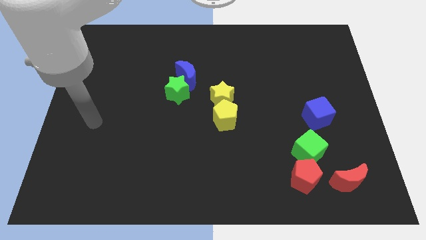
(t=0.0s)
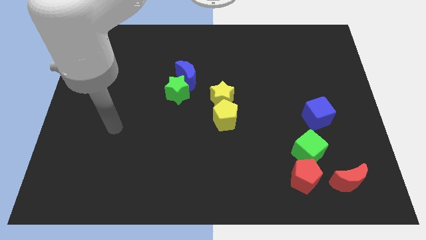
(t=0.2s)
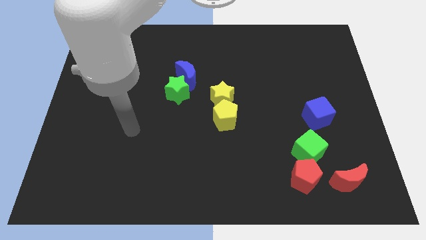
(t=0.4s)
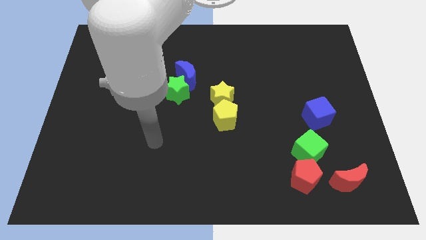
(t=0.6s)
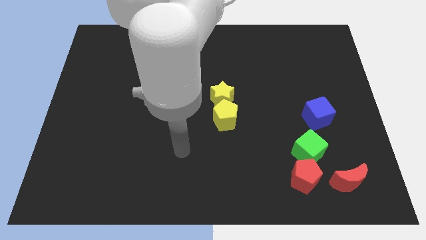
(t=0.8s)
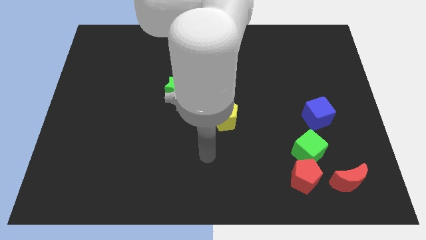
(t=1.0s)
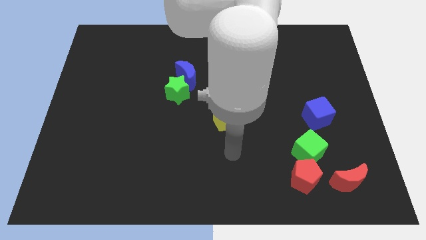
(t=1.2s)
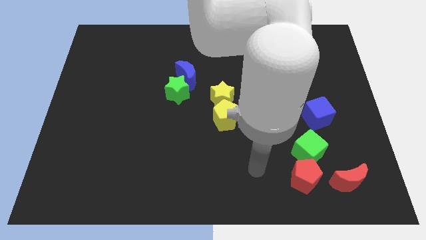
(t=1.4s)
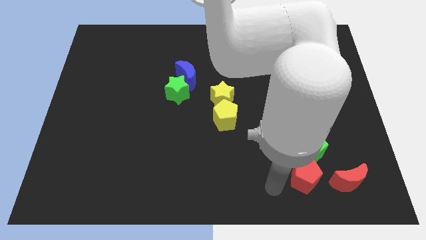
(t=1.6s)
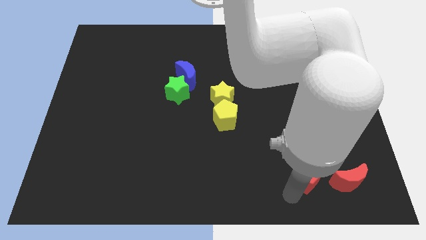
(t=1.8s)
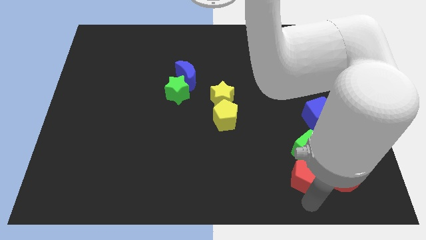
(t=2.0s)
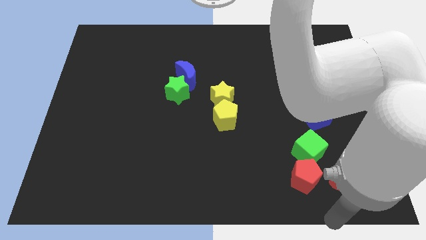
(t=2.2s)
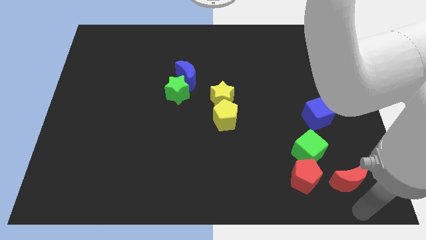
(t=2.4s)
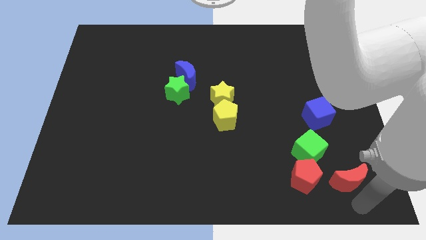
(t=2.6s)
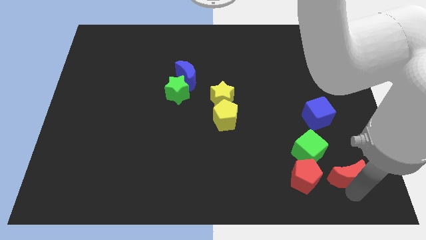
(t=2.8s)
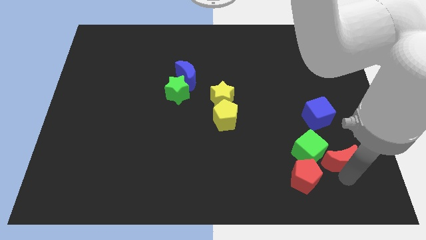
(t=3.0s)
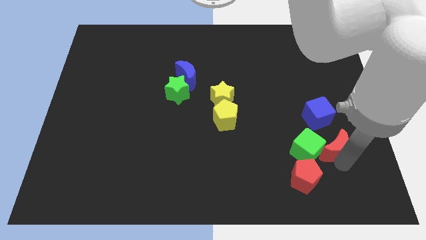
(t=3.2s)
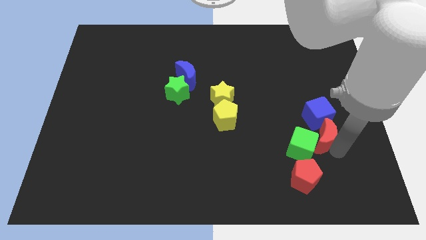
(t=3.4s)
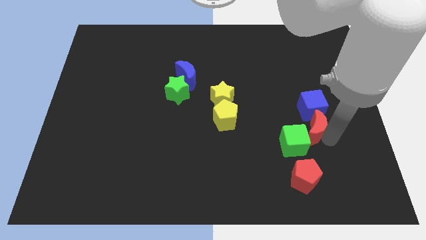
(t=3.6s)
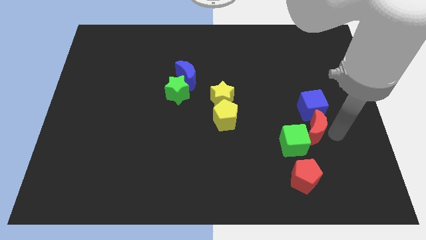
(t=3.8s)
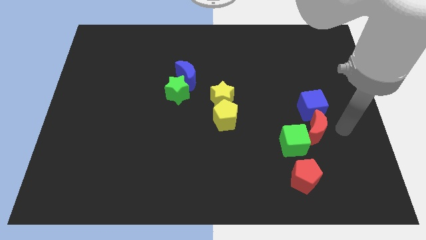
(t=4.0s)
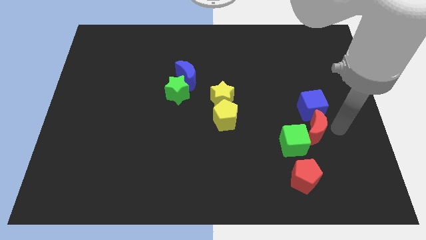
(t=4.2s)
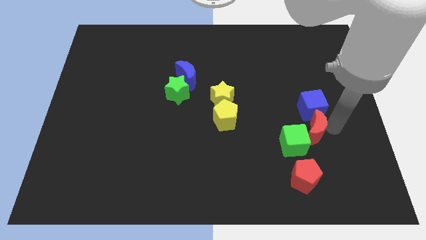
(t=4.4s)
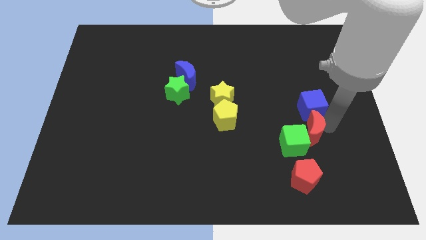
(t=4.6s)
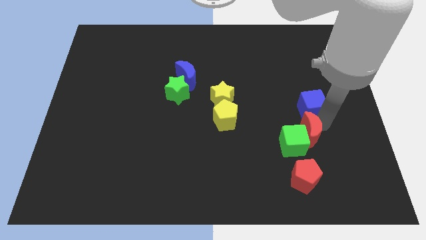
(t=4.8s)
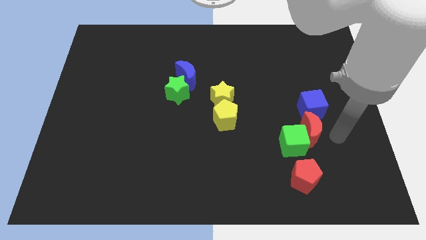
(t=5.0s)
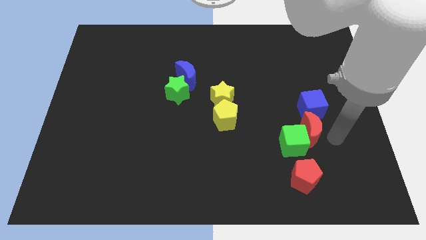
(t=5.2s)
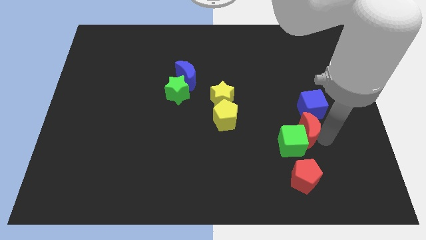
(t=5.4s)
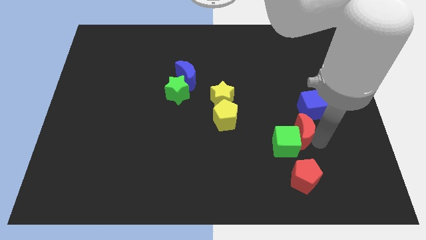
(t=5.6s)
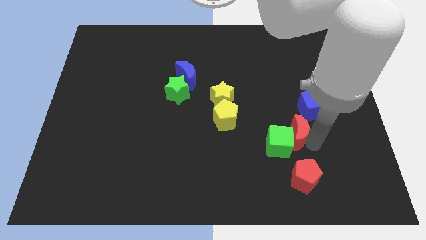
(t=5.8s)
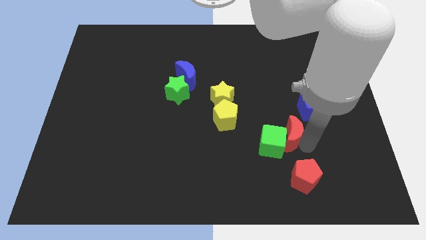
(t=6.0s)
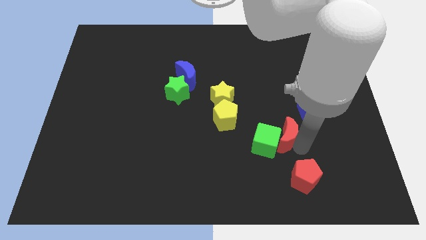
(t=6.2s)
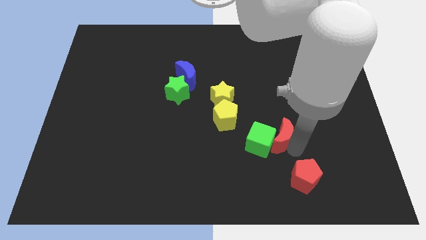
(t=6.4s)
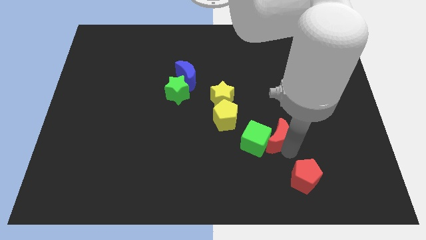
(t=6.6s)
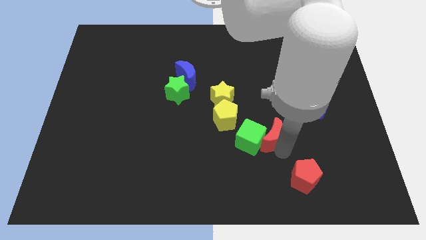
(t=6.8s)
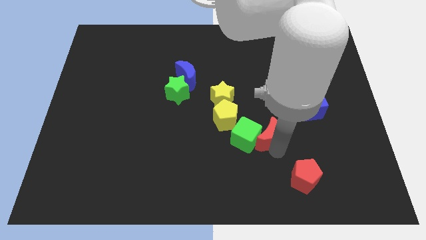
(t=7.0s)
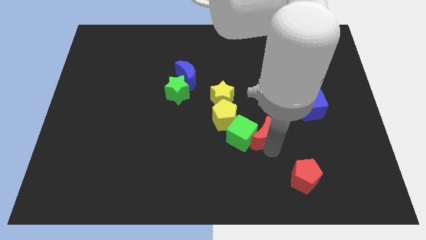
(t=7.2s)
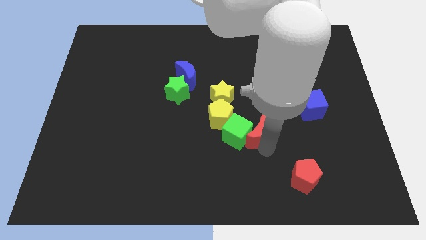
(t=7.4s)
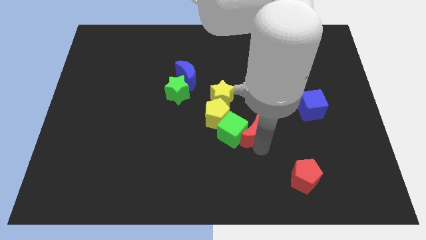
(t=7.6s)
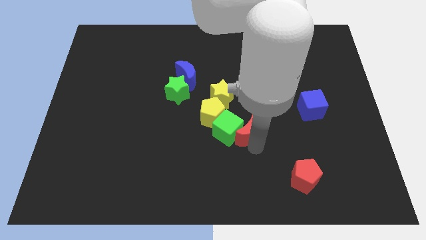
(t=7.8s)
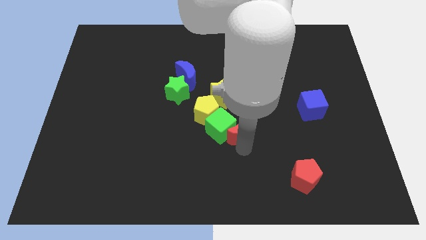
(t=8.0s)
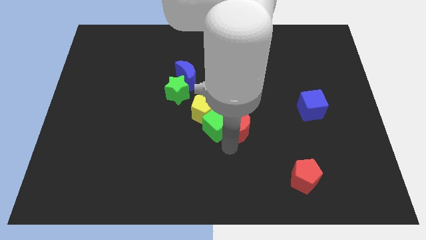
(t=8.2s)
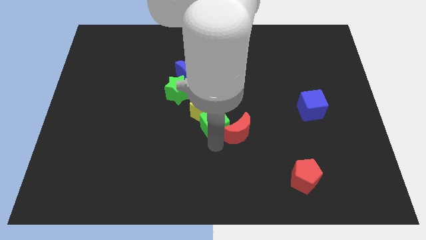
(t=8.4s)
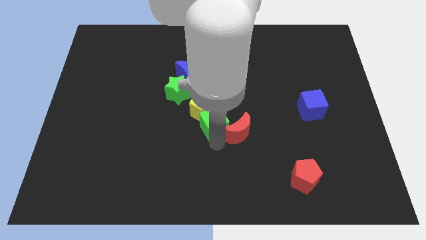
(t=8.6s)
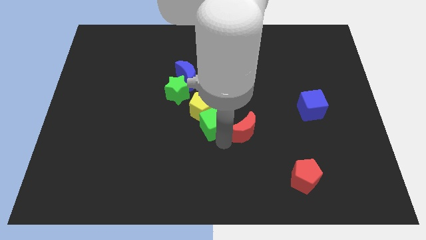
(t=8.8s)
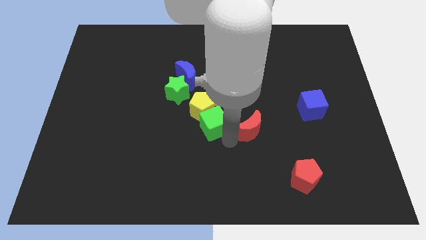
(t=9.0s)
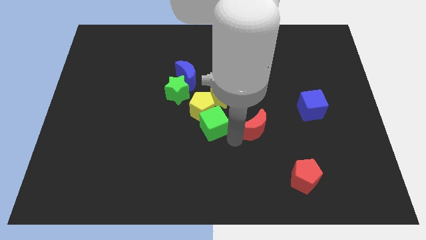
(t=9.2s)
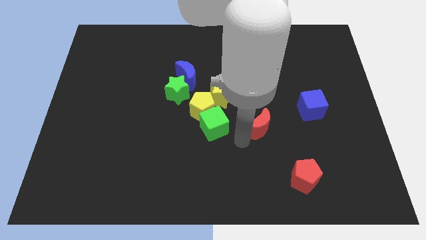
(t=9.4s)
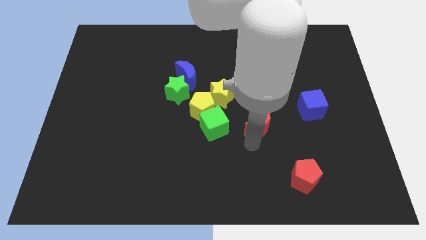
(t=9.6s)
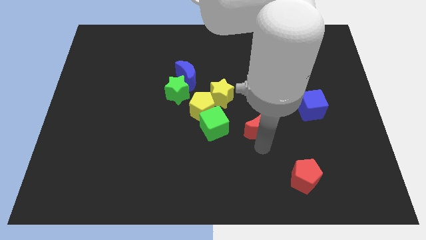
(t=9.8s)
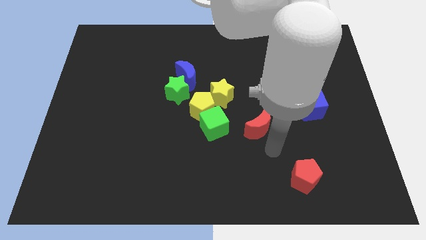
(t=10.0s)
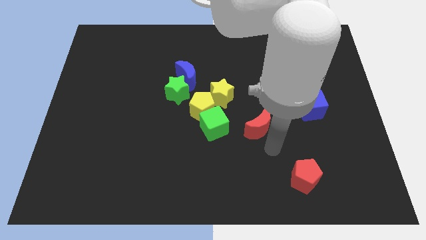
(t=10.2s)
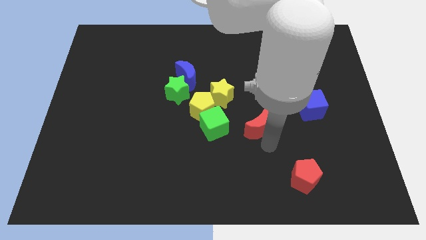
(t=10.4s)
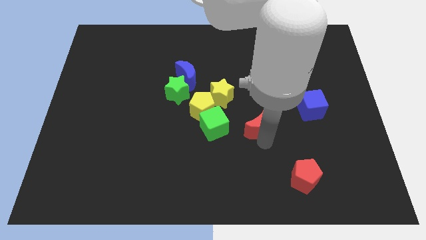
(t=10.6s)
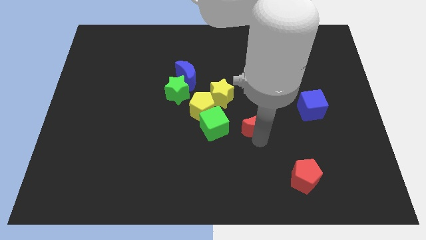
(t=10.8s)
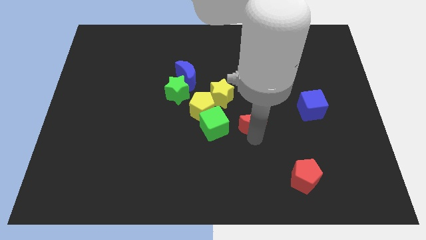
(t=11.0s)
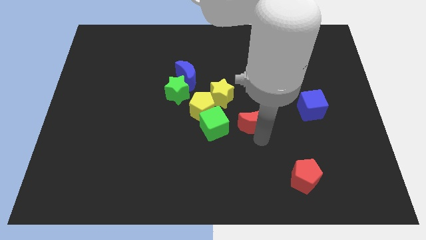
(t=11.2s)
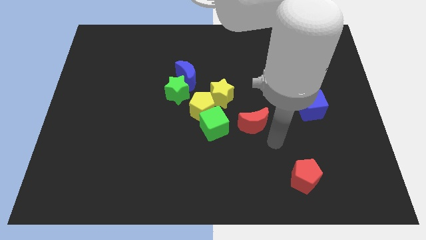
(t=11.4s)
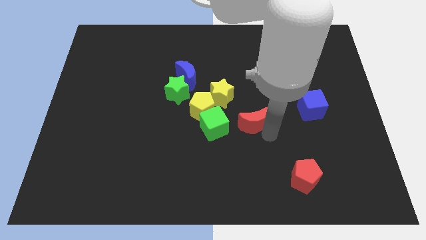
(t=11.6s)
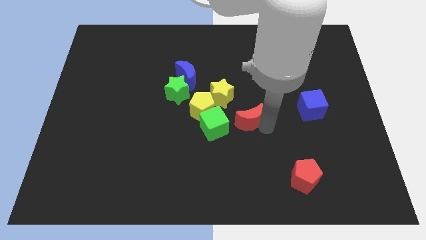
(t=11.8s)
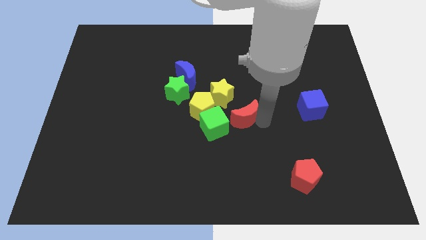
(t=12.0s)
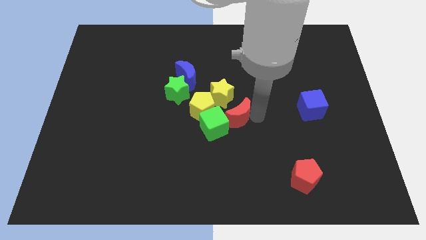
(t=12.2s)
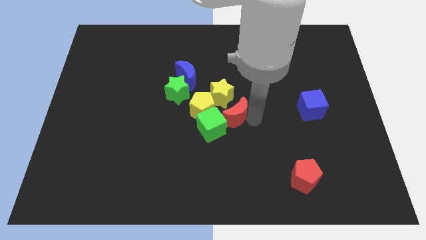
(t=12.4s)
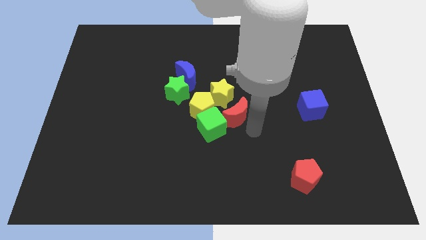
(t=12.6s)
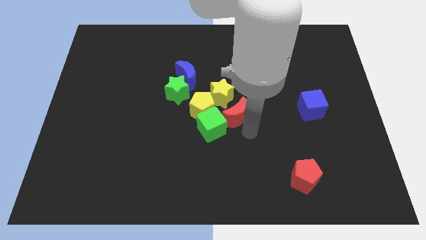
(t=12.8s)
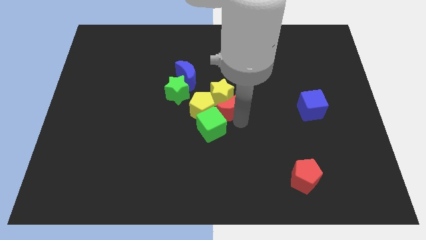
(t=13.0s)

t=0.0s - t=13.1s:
push the red moon towards the yellow star
